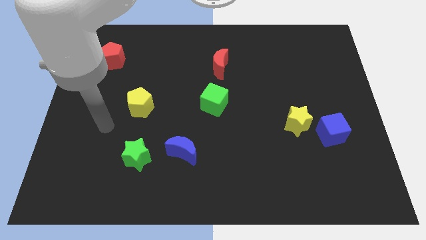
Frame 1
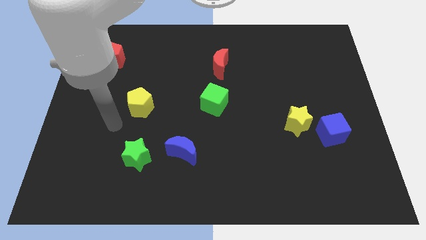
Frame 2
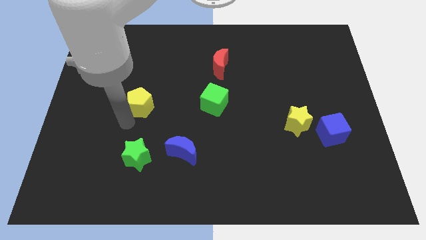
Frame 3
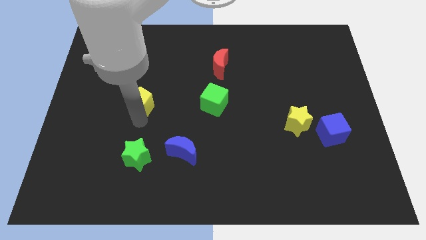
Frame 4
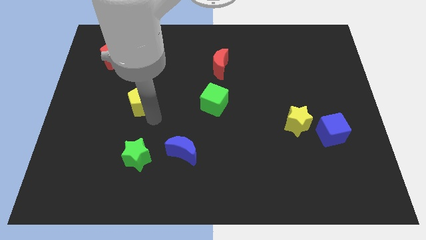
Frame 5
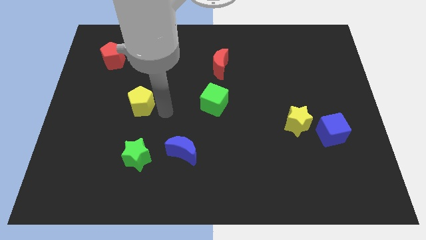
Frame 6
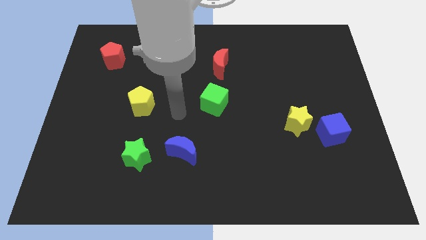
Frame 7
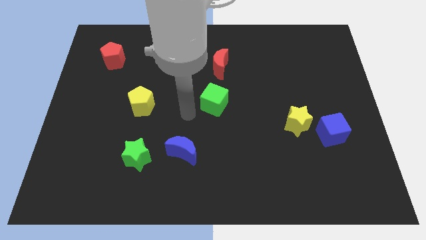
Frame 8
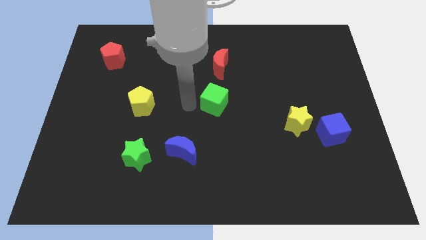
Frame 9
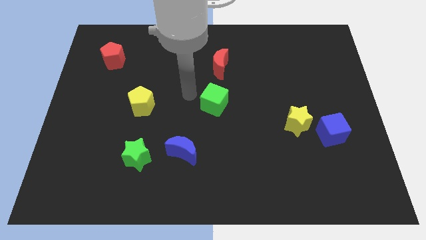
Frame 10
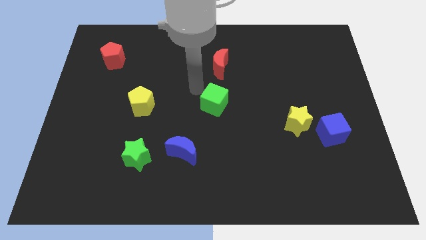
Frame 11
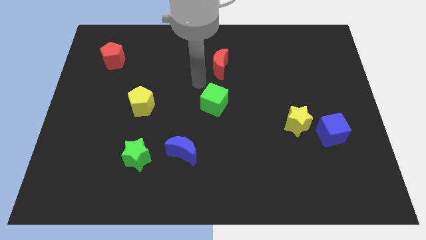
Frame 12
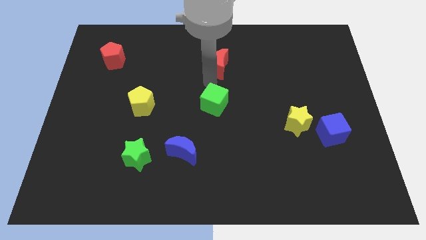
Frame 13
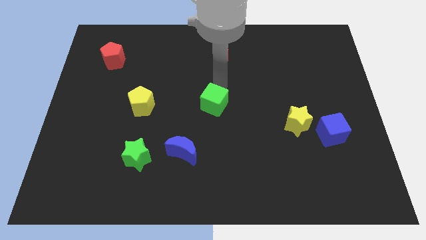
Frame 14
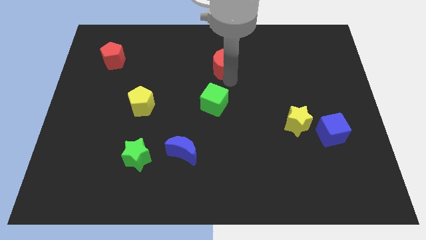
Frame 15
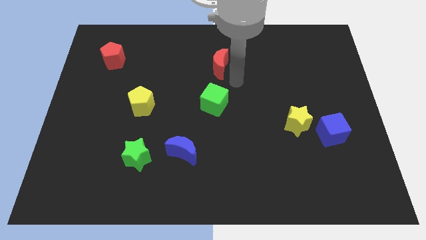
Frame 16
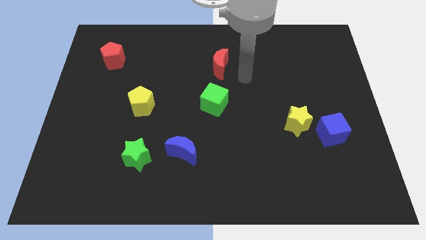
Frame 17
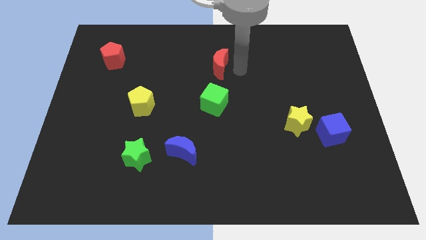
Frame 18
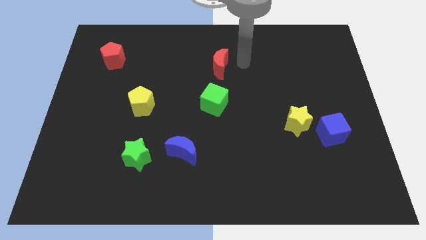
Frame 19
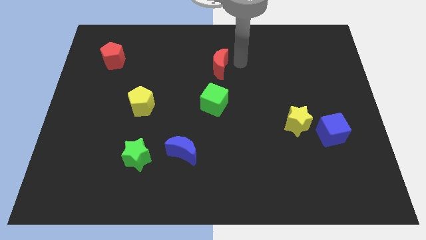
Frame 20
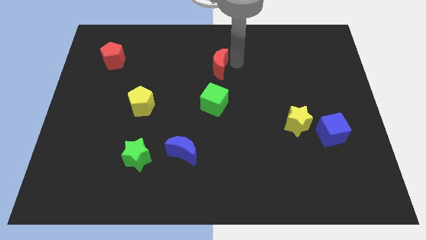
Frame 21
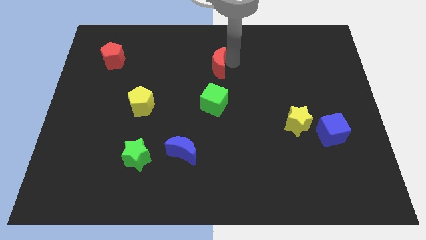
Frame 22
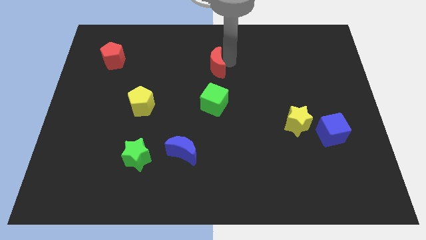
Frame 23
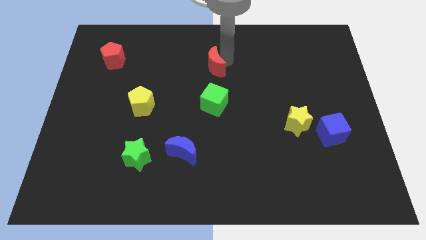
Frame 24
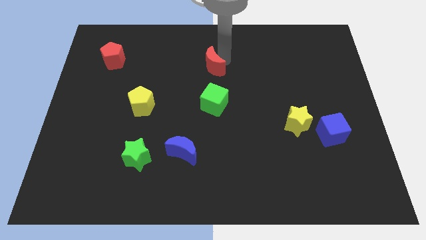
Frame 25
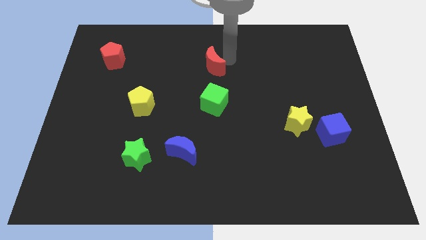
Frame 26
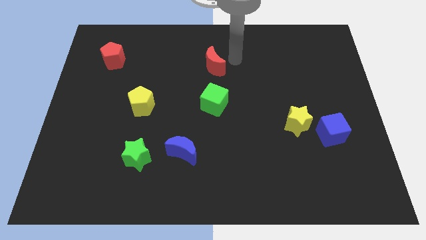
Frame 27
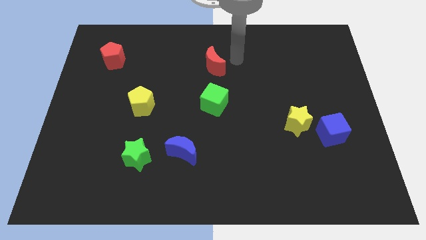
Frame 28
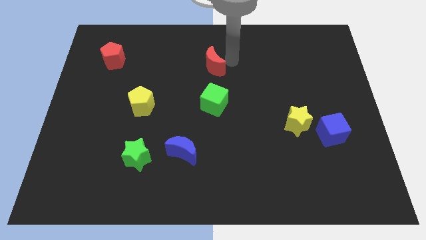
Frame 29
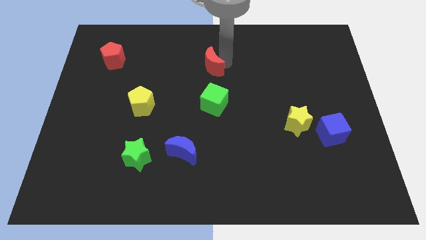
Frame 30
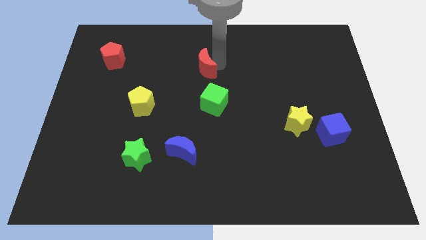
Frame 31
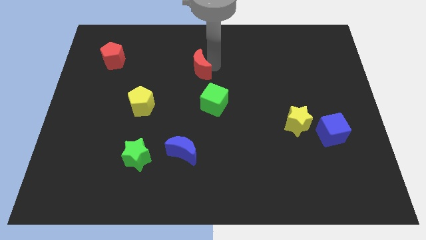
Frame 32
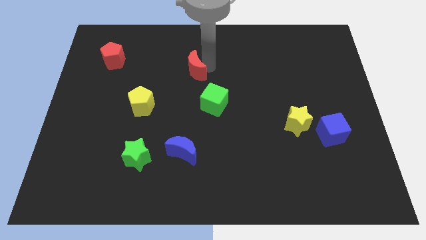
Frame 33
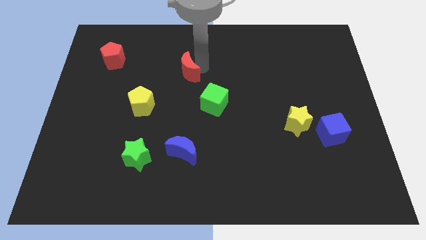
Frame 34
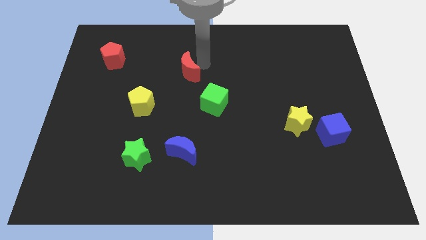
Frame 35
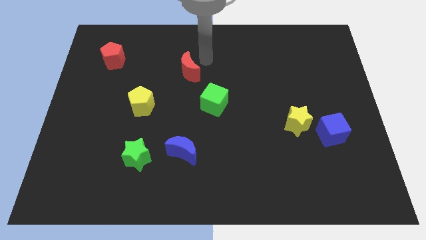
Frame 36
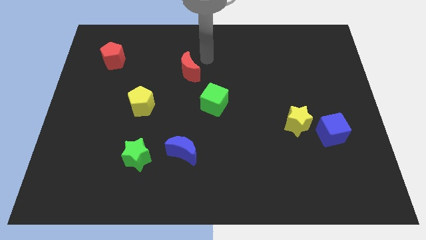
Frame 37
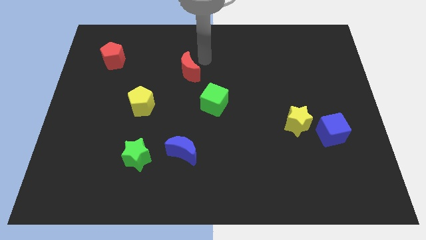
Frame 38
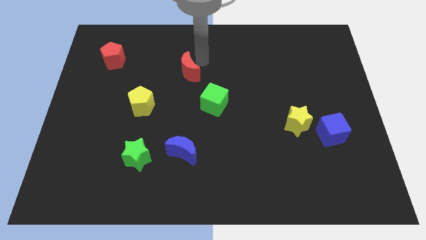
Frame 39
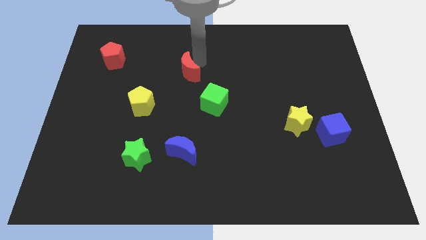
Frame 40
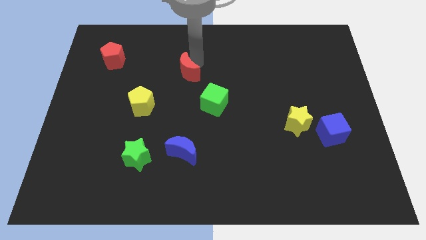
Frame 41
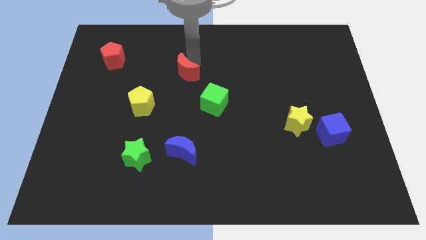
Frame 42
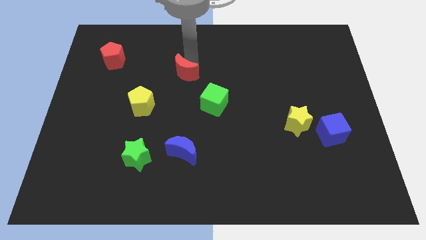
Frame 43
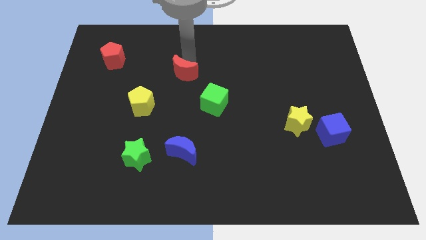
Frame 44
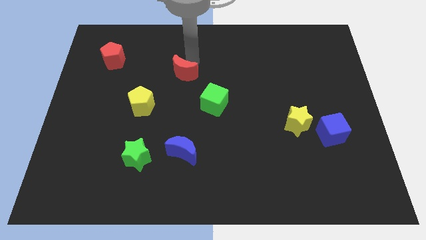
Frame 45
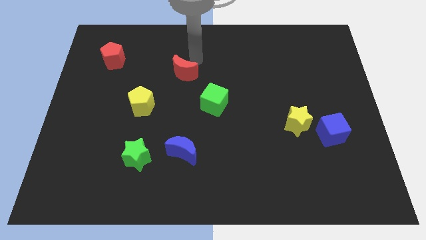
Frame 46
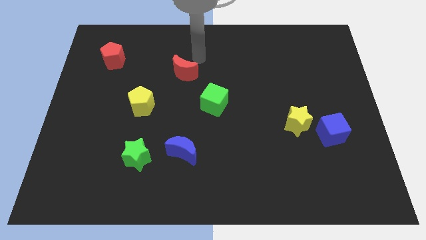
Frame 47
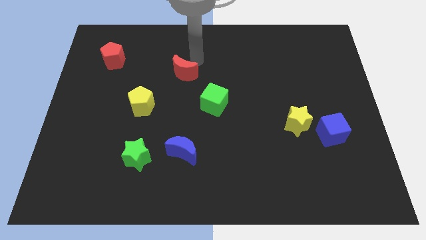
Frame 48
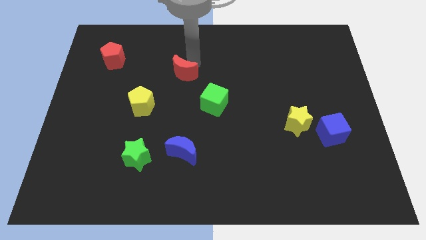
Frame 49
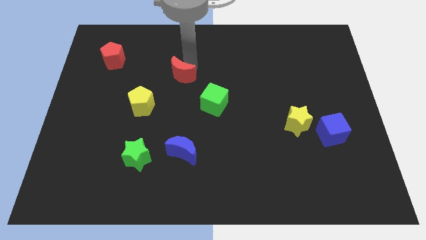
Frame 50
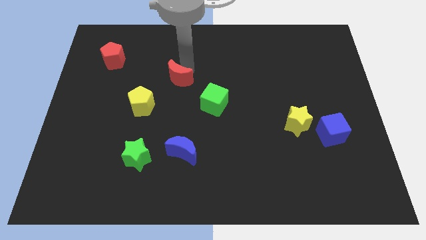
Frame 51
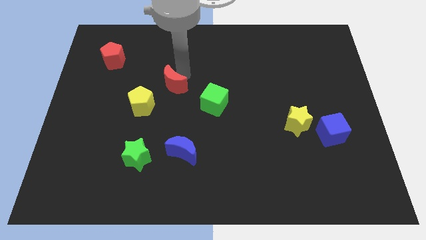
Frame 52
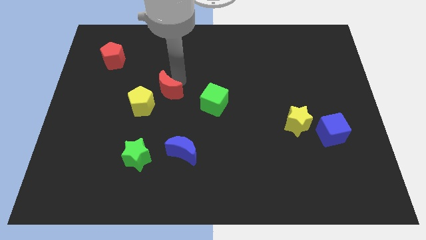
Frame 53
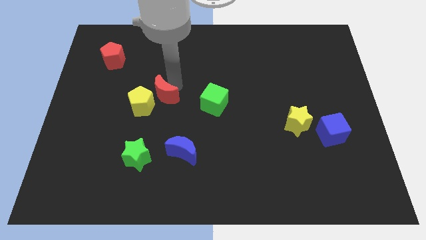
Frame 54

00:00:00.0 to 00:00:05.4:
move the red moon close to the yellow pentagon

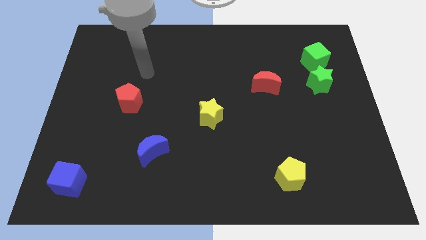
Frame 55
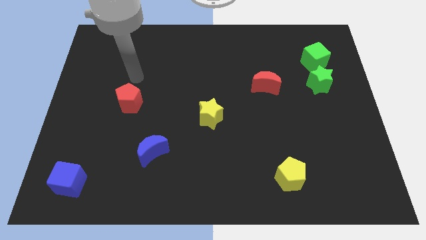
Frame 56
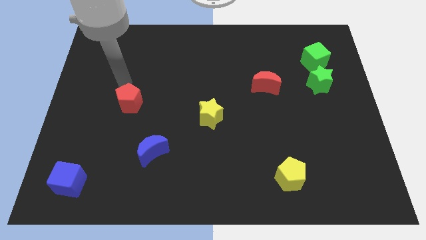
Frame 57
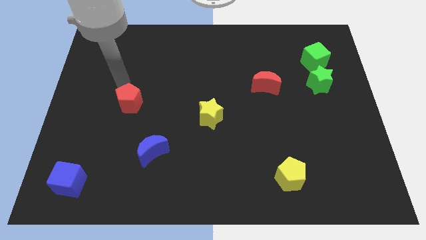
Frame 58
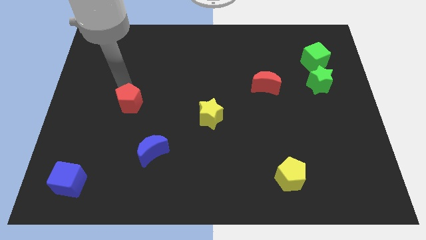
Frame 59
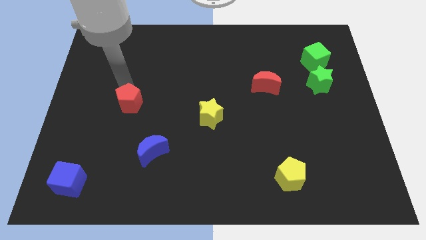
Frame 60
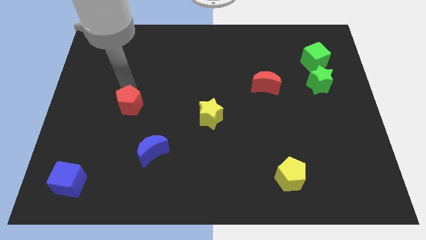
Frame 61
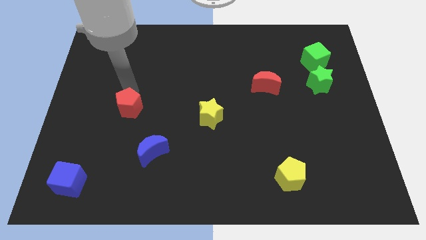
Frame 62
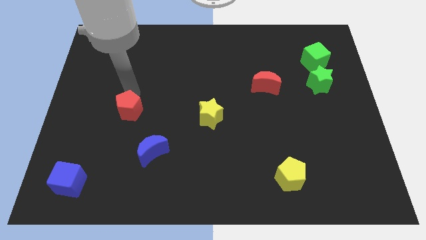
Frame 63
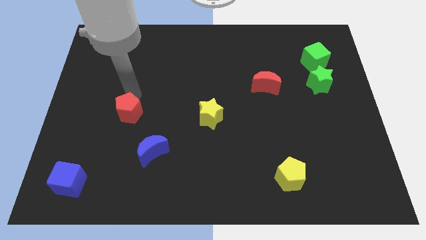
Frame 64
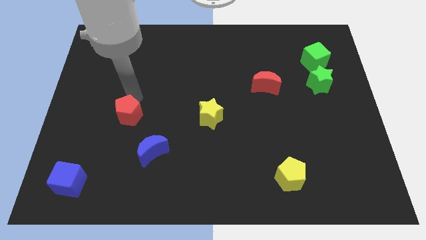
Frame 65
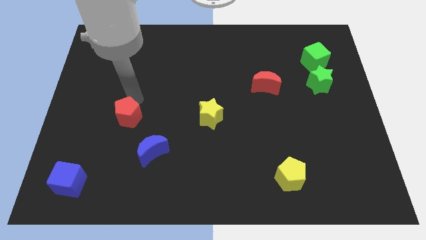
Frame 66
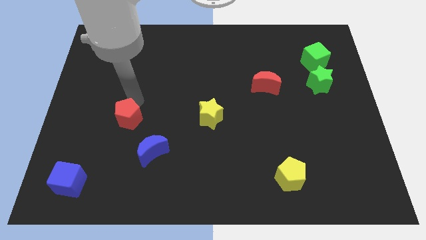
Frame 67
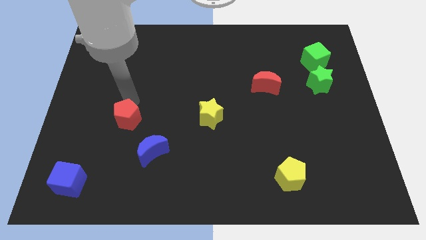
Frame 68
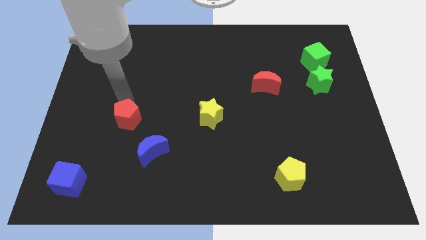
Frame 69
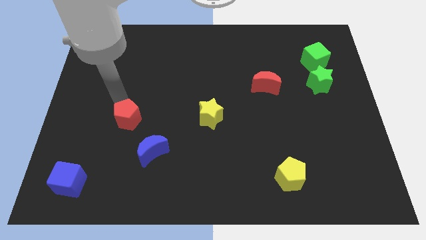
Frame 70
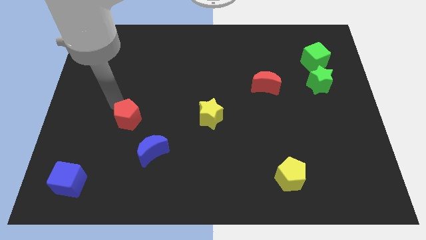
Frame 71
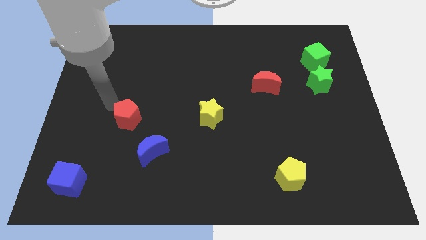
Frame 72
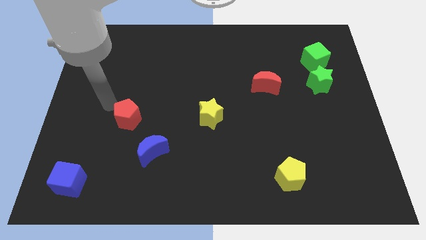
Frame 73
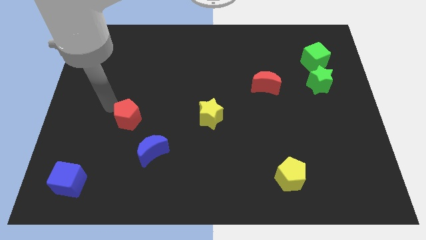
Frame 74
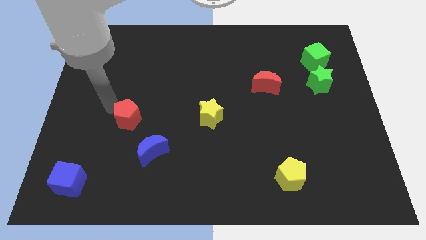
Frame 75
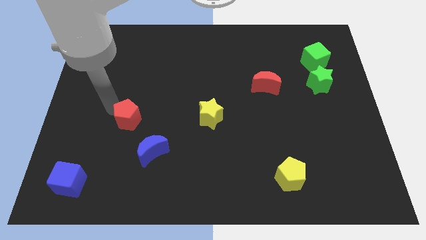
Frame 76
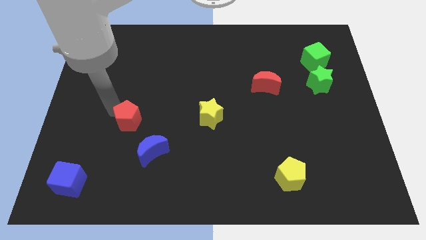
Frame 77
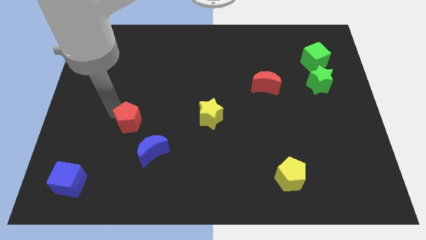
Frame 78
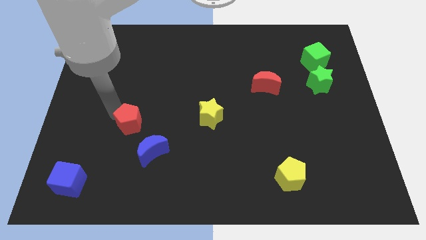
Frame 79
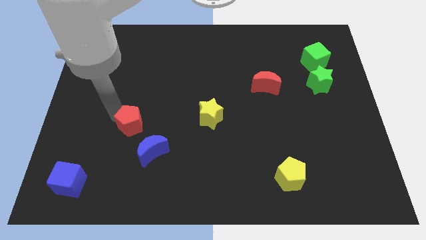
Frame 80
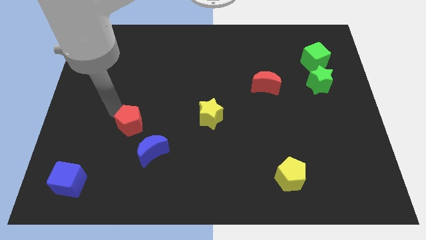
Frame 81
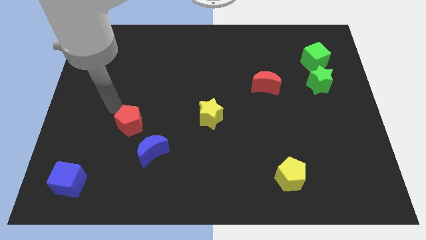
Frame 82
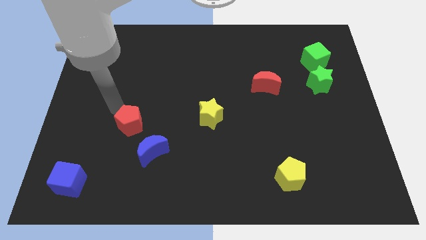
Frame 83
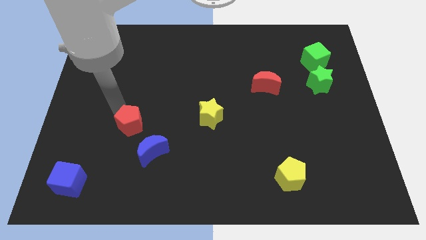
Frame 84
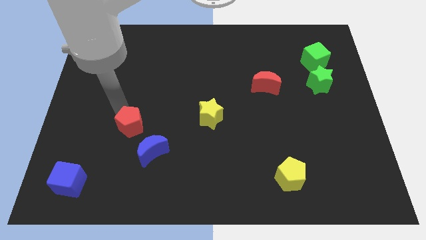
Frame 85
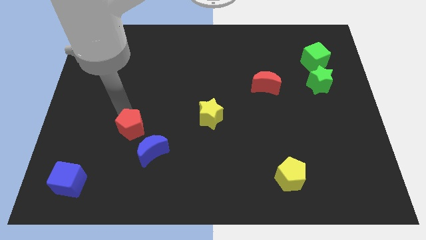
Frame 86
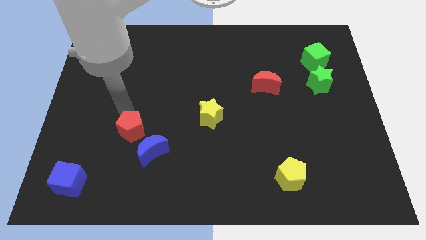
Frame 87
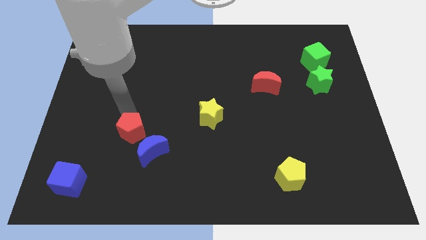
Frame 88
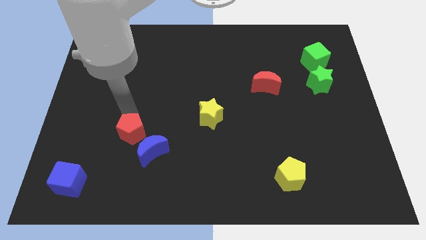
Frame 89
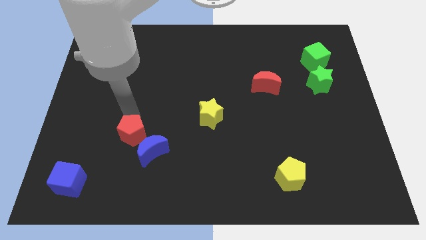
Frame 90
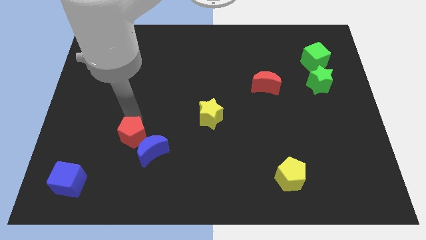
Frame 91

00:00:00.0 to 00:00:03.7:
put the red pentagon next to the blue moon
